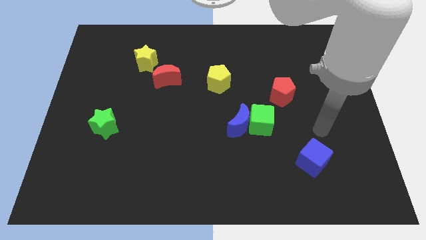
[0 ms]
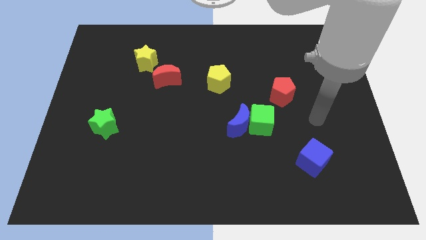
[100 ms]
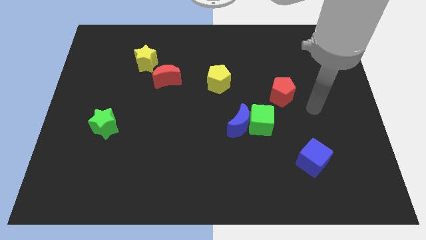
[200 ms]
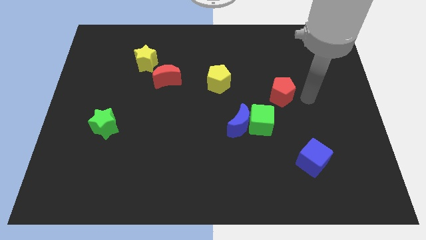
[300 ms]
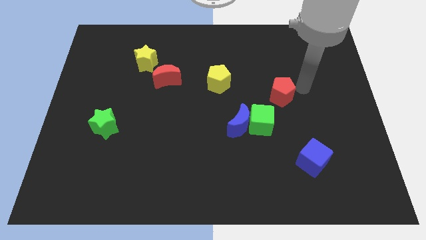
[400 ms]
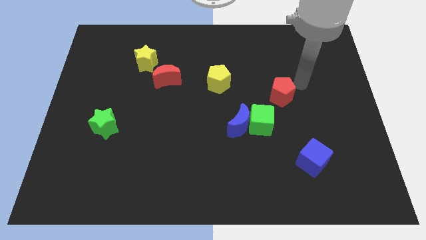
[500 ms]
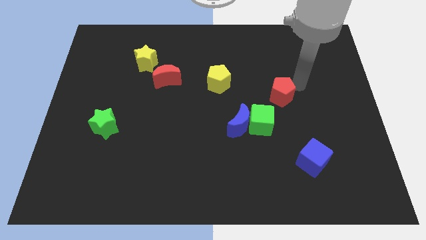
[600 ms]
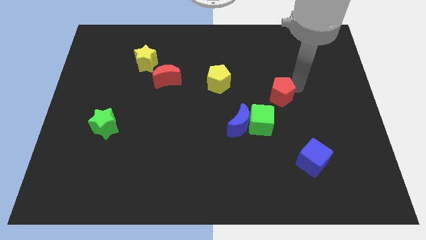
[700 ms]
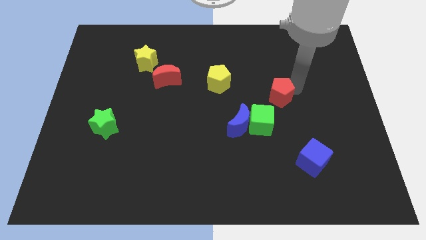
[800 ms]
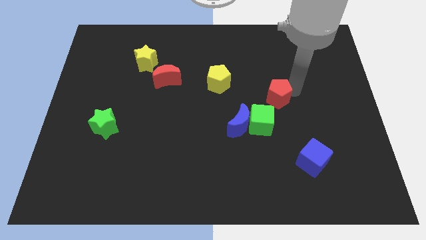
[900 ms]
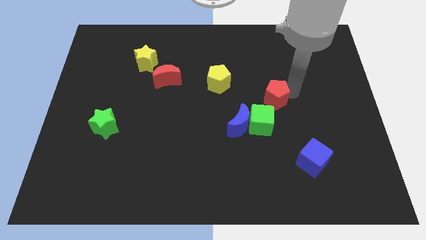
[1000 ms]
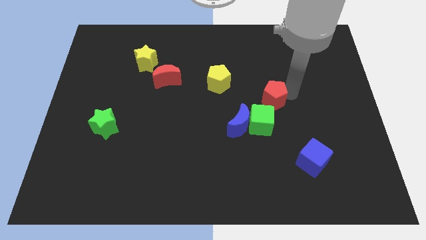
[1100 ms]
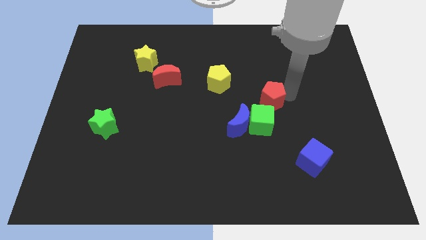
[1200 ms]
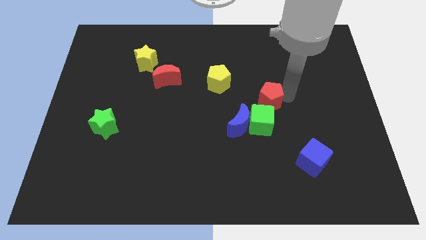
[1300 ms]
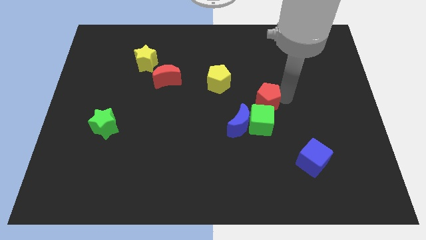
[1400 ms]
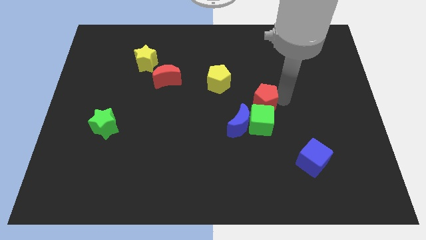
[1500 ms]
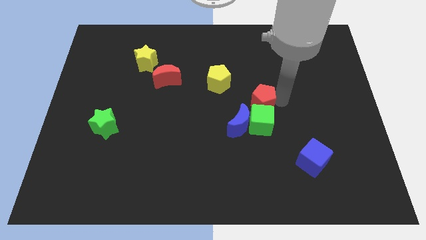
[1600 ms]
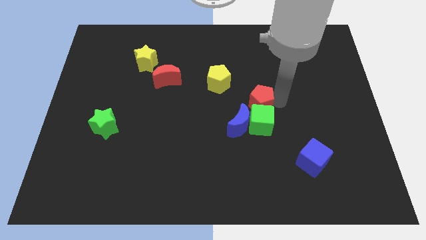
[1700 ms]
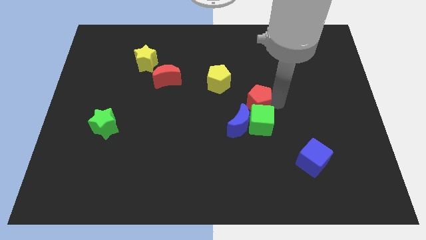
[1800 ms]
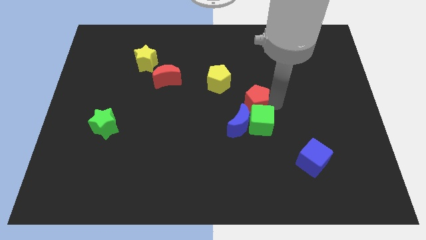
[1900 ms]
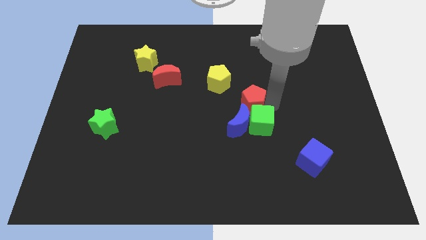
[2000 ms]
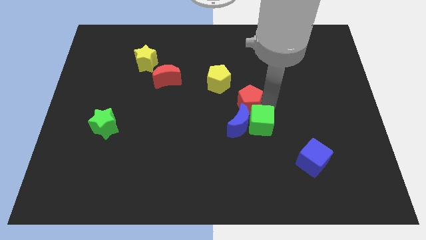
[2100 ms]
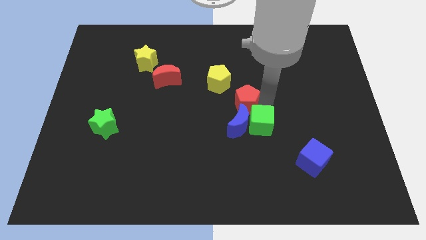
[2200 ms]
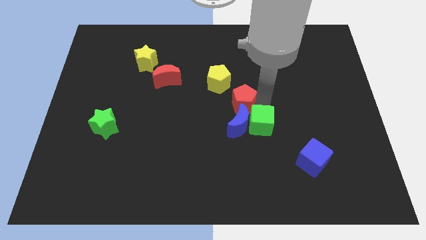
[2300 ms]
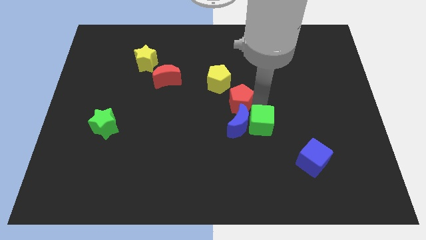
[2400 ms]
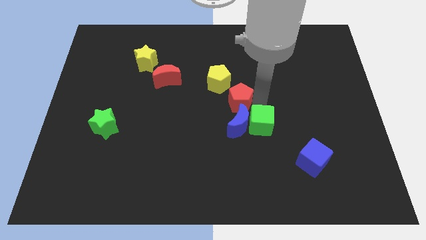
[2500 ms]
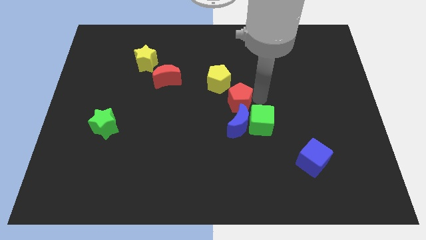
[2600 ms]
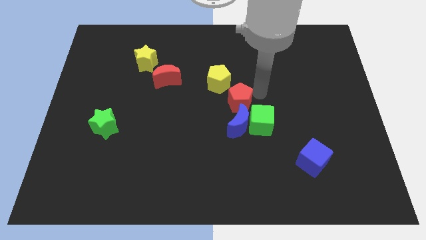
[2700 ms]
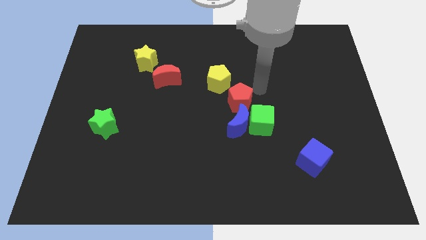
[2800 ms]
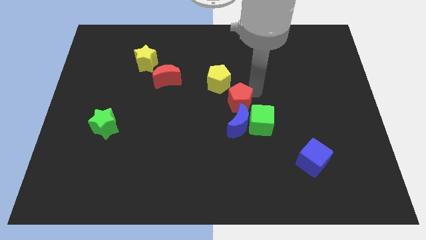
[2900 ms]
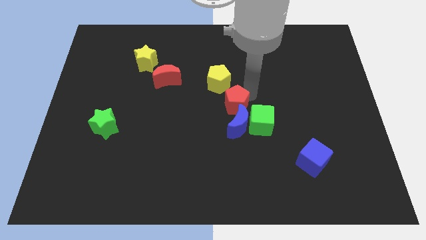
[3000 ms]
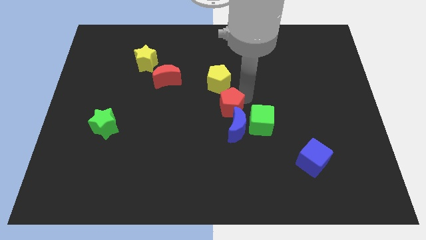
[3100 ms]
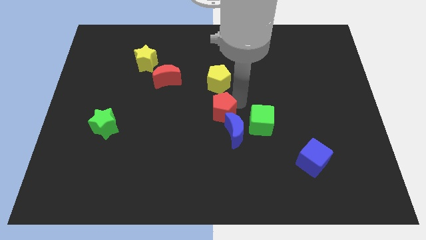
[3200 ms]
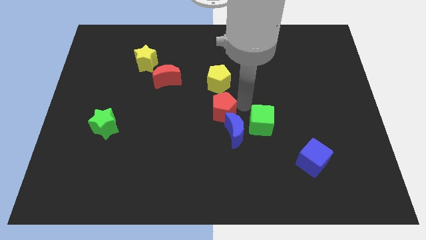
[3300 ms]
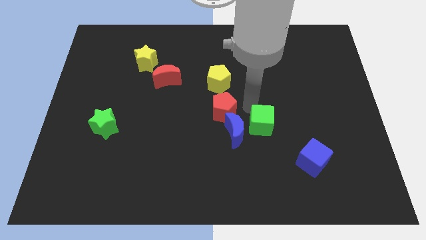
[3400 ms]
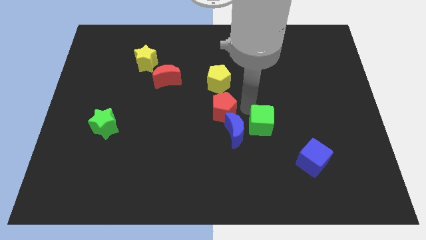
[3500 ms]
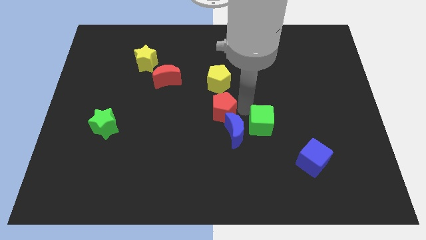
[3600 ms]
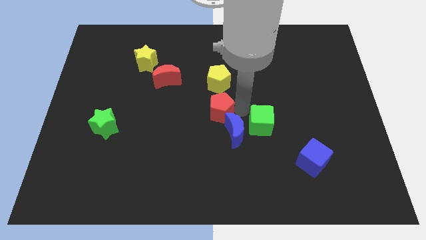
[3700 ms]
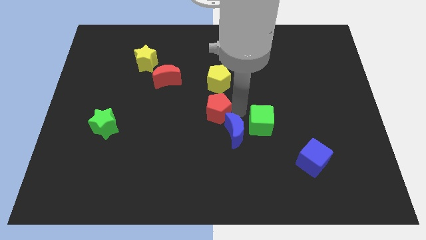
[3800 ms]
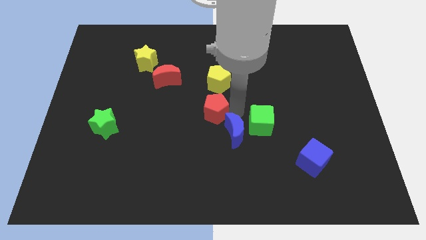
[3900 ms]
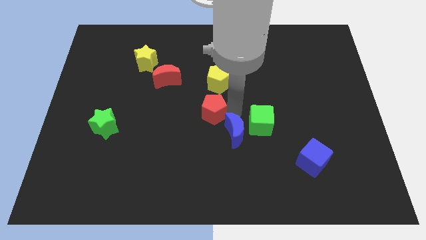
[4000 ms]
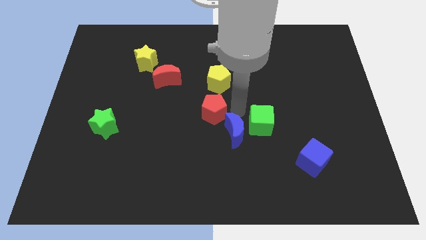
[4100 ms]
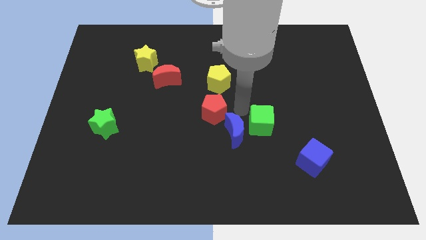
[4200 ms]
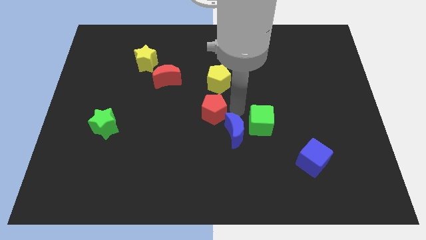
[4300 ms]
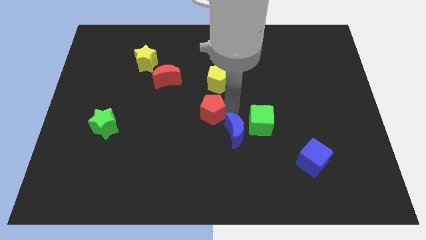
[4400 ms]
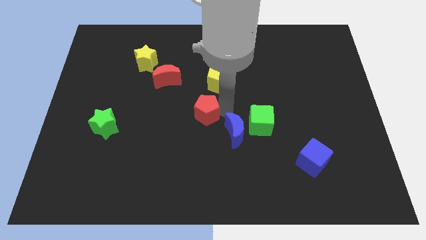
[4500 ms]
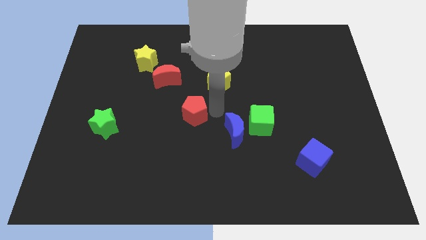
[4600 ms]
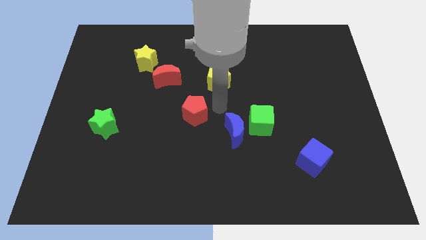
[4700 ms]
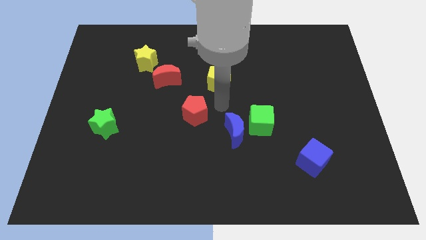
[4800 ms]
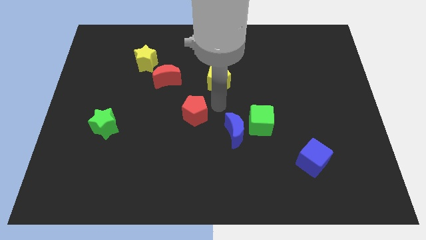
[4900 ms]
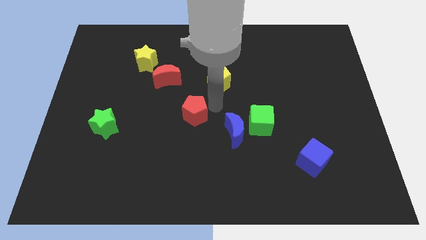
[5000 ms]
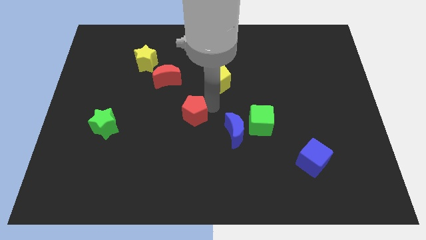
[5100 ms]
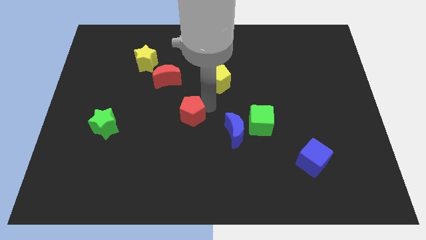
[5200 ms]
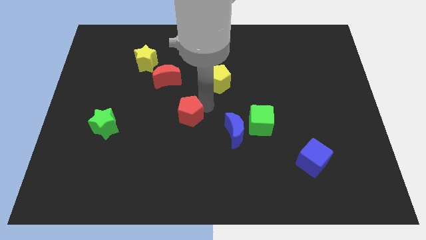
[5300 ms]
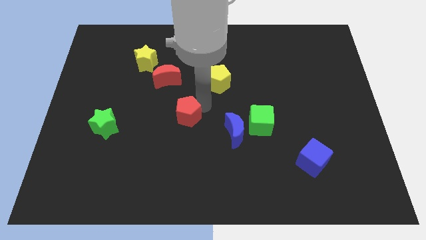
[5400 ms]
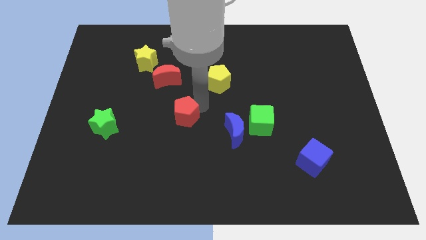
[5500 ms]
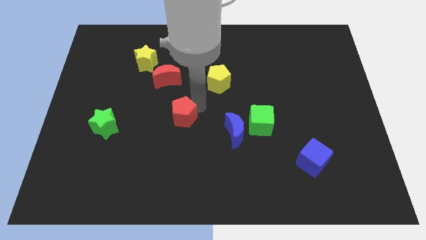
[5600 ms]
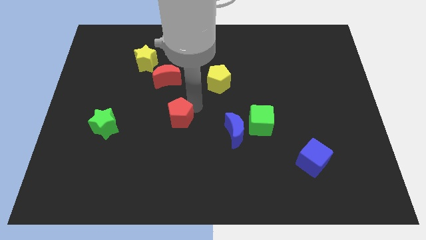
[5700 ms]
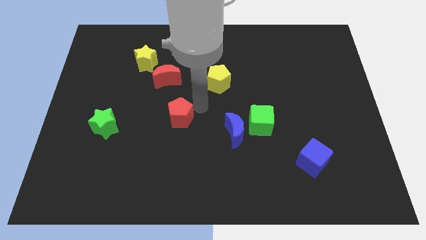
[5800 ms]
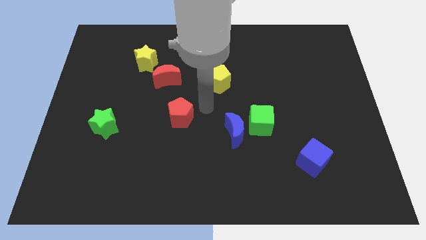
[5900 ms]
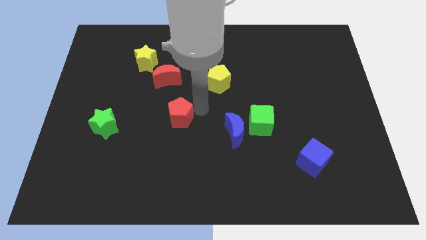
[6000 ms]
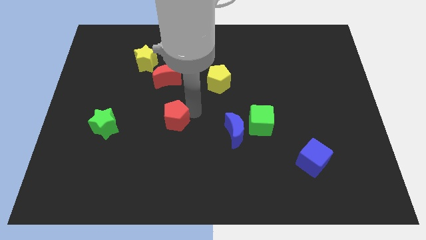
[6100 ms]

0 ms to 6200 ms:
put the red pentagon right of the green star

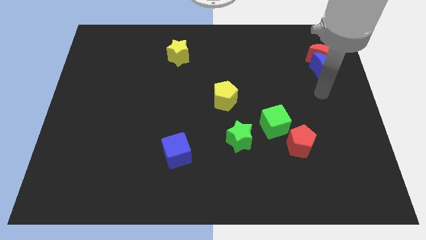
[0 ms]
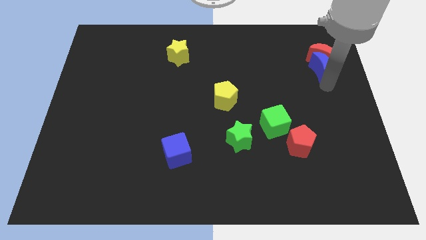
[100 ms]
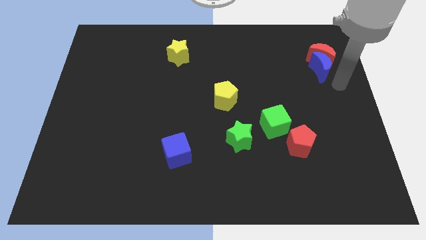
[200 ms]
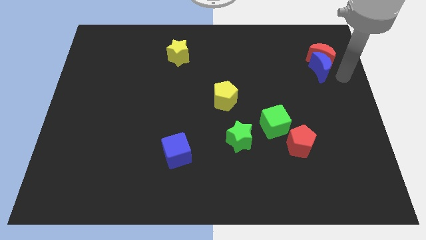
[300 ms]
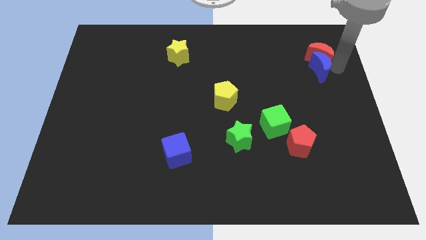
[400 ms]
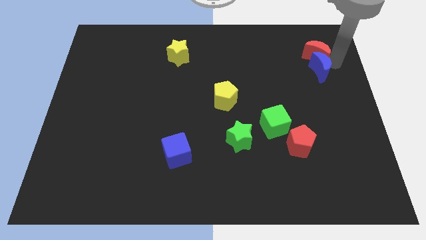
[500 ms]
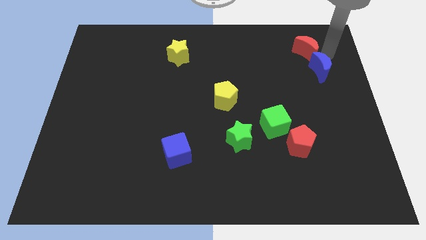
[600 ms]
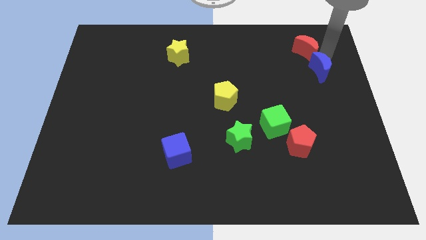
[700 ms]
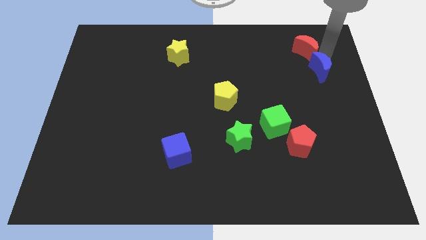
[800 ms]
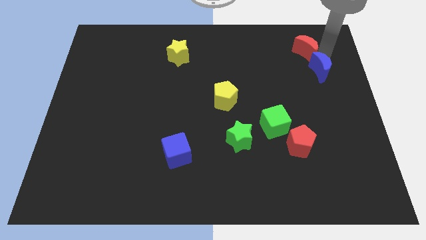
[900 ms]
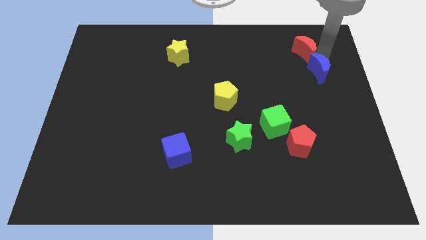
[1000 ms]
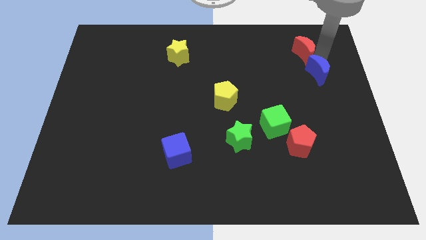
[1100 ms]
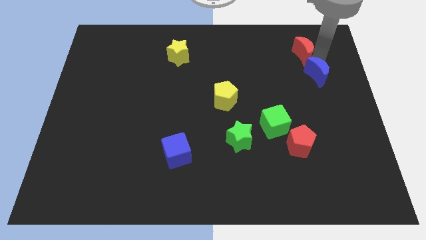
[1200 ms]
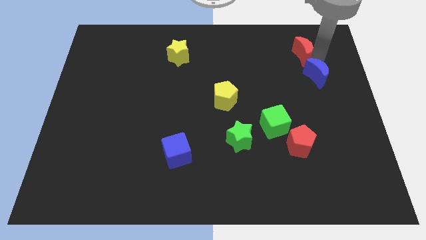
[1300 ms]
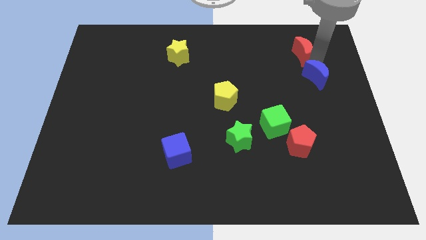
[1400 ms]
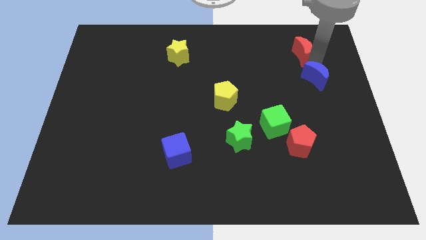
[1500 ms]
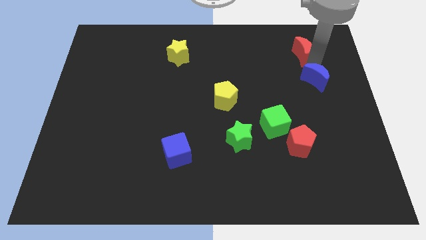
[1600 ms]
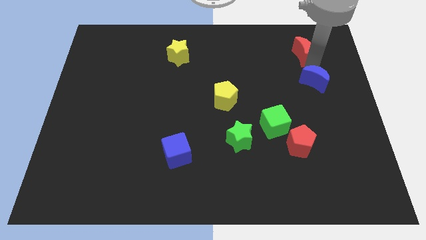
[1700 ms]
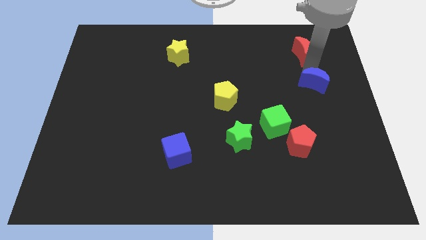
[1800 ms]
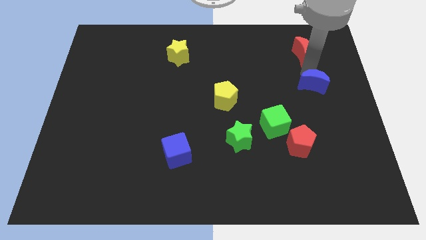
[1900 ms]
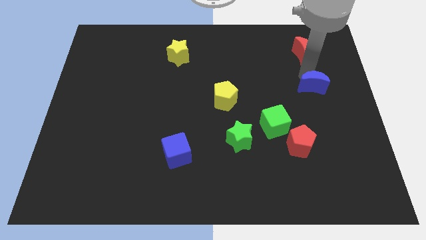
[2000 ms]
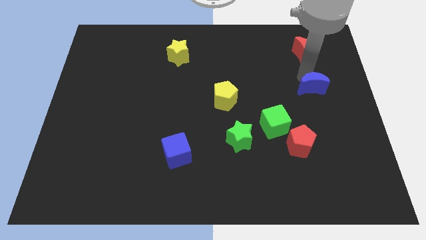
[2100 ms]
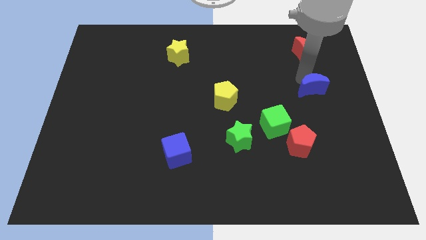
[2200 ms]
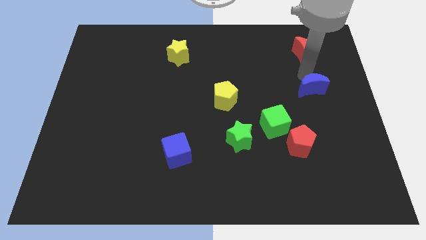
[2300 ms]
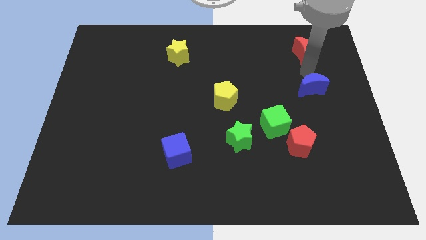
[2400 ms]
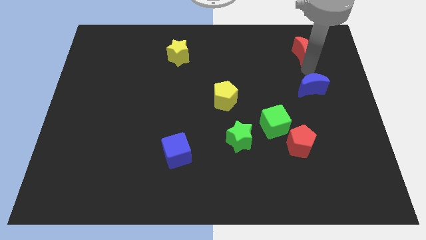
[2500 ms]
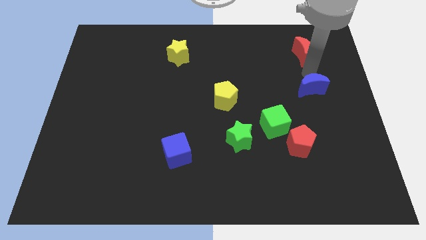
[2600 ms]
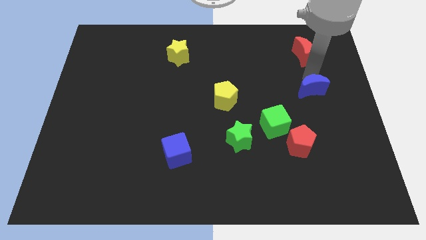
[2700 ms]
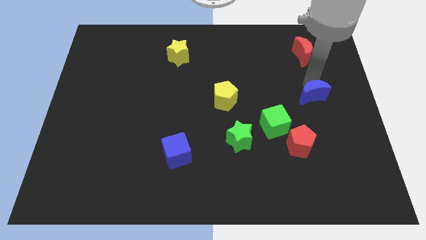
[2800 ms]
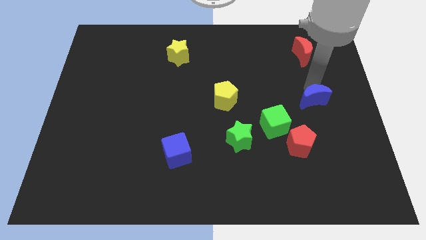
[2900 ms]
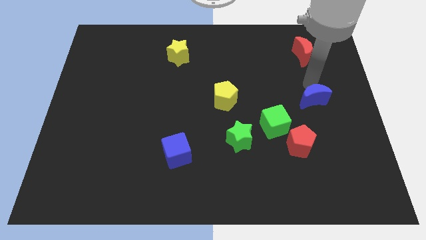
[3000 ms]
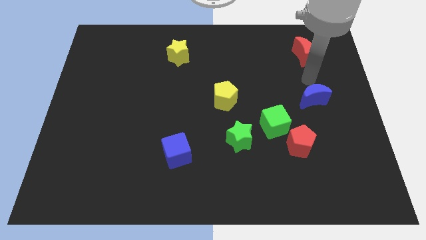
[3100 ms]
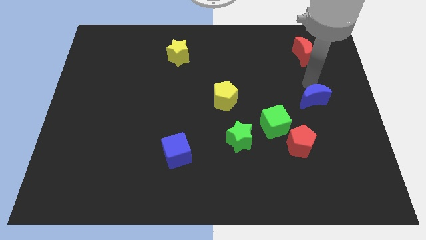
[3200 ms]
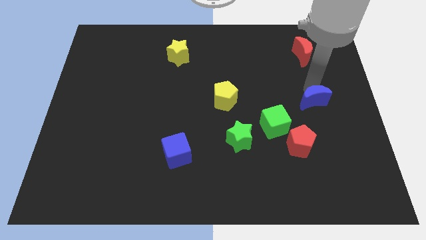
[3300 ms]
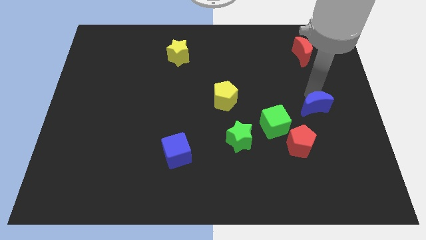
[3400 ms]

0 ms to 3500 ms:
put the blue moon diagonally up and to the right of the red pentagon
